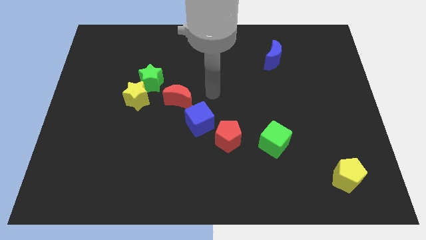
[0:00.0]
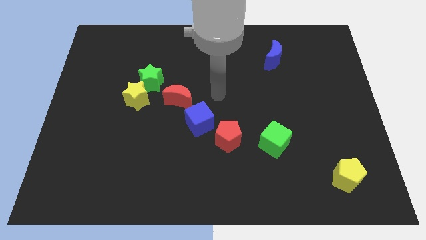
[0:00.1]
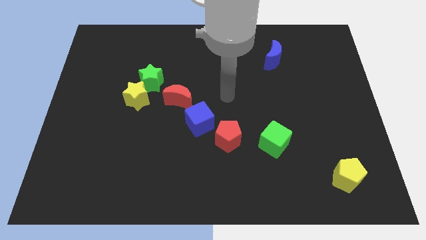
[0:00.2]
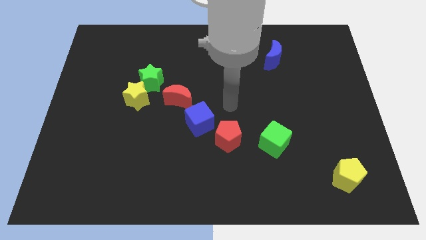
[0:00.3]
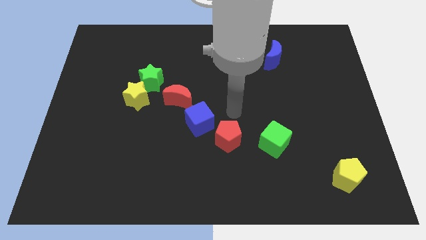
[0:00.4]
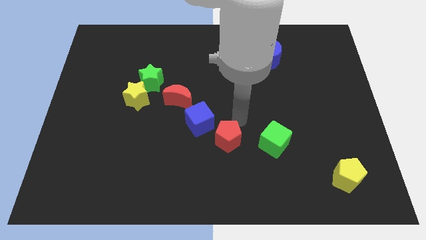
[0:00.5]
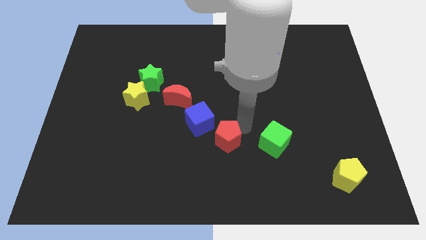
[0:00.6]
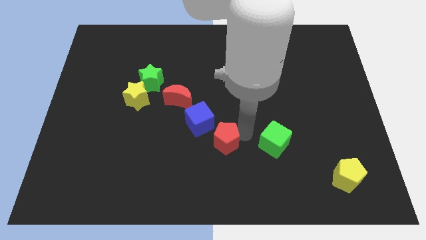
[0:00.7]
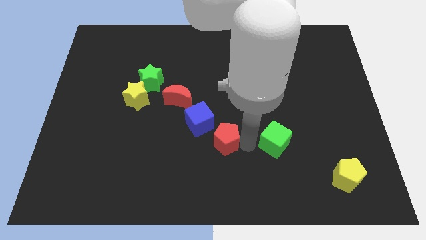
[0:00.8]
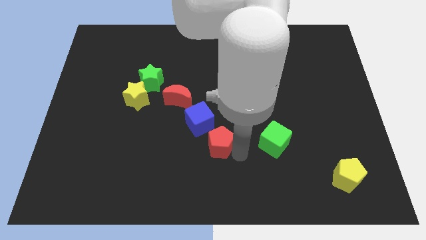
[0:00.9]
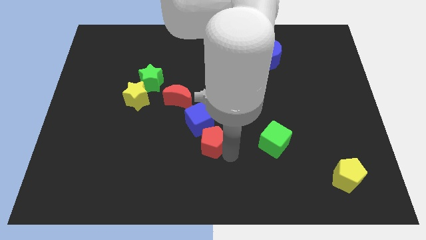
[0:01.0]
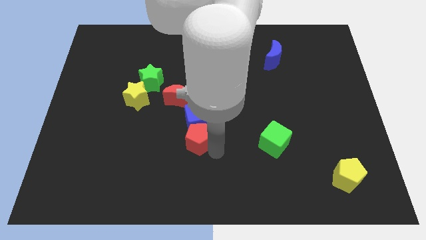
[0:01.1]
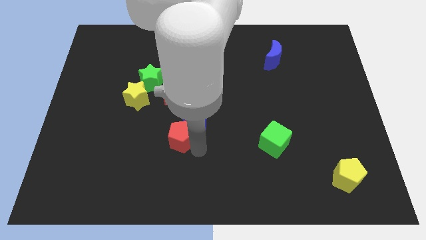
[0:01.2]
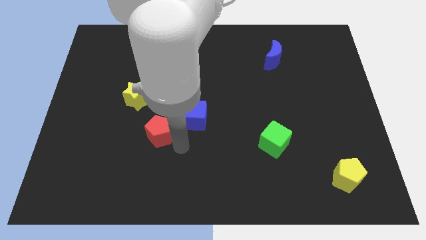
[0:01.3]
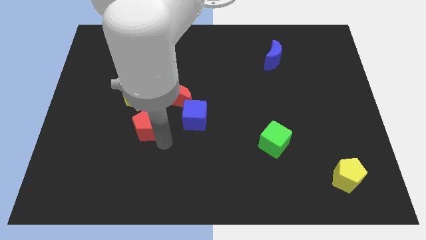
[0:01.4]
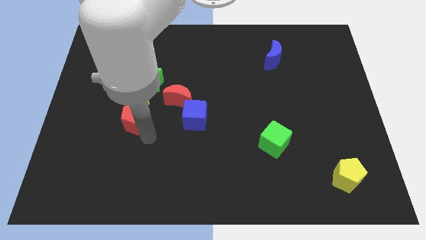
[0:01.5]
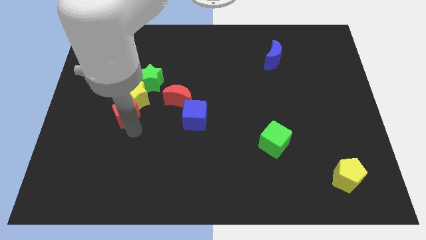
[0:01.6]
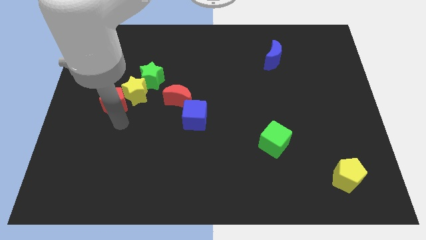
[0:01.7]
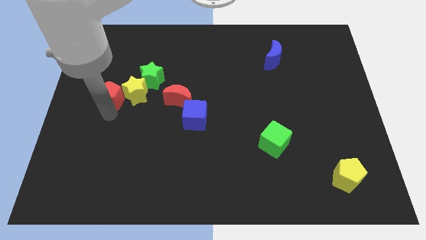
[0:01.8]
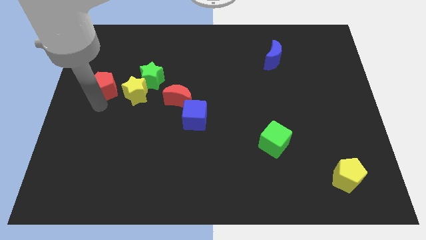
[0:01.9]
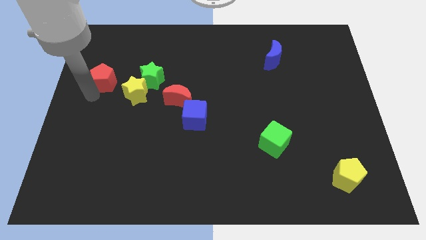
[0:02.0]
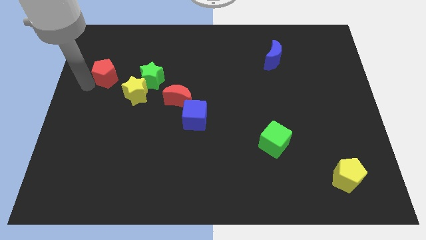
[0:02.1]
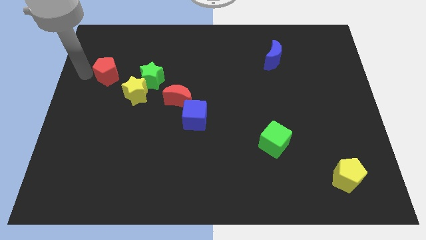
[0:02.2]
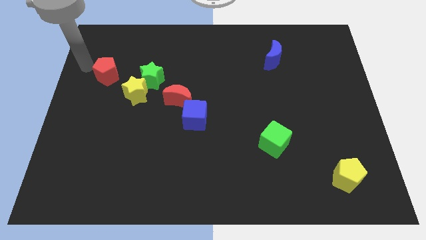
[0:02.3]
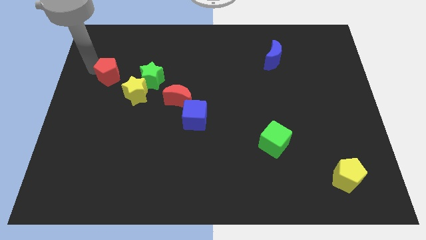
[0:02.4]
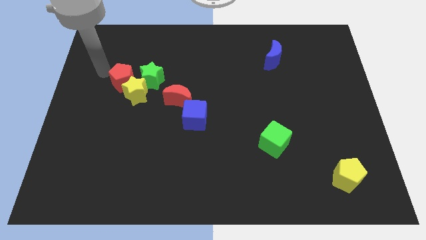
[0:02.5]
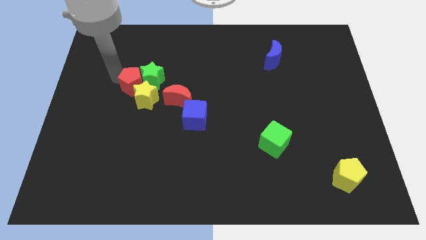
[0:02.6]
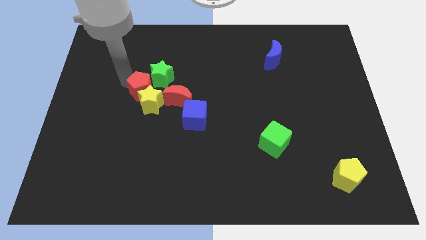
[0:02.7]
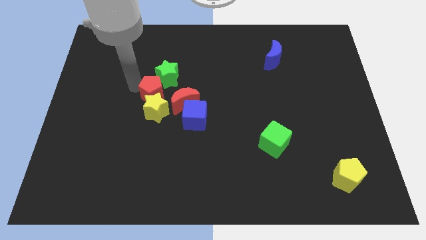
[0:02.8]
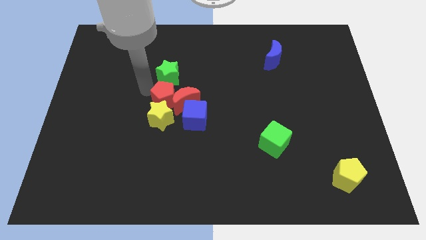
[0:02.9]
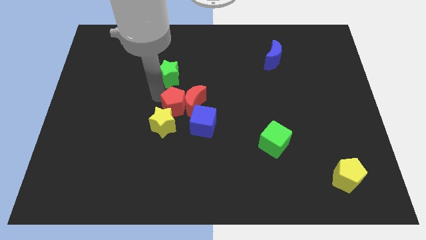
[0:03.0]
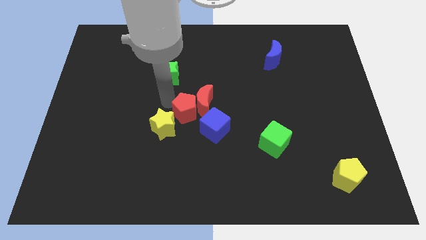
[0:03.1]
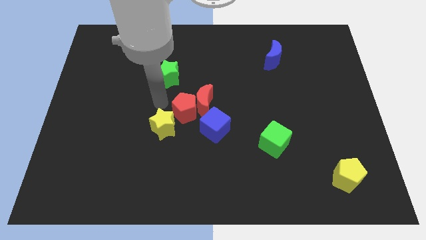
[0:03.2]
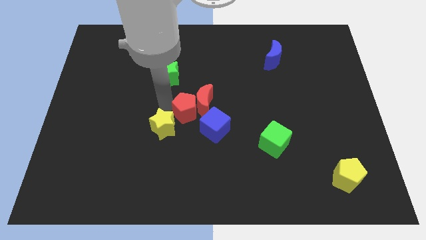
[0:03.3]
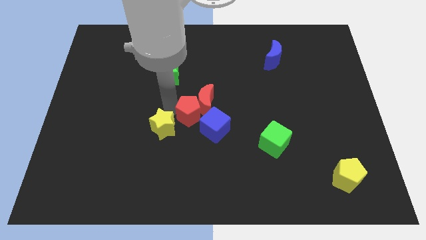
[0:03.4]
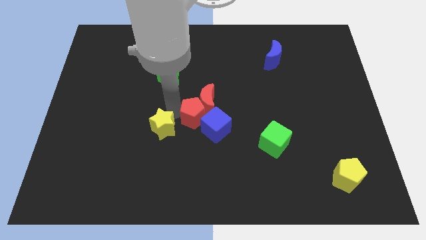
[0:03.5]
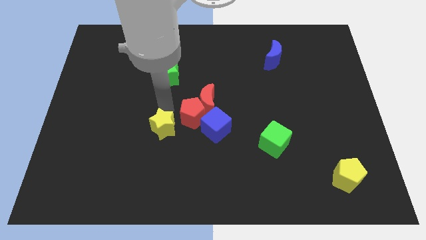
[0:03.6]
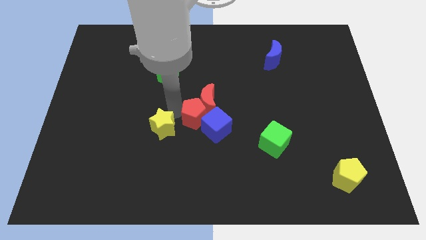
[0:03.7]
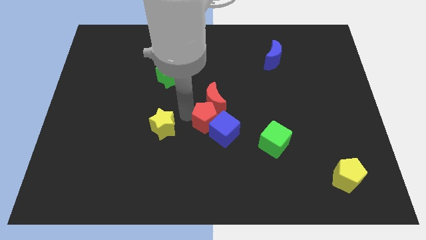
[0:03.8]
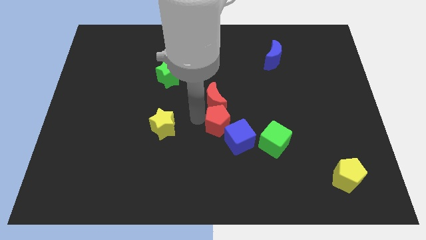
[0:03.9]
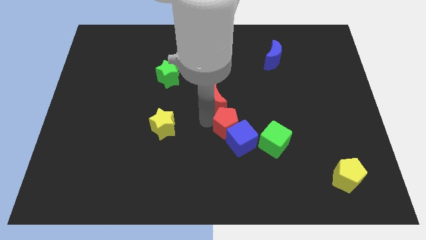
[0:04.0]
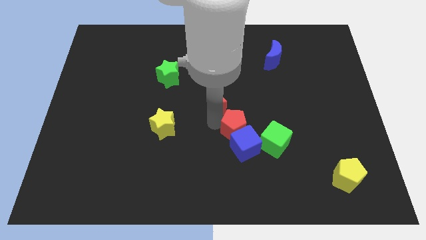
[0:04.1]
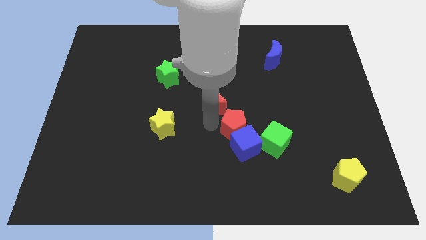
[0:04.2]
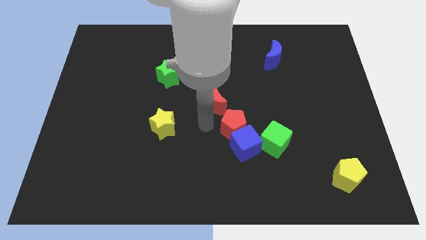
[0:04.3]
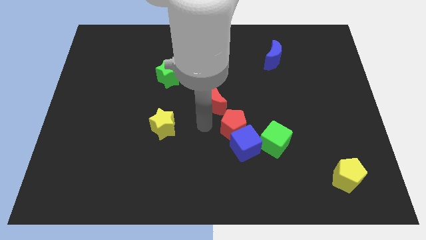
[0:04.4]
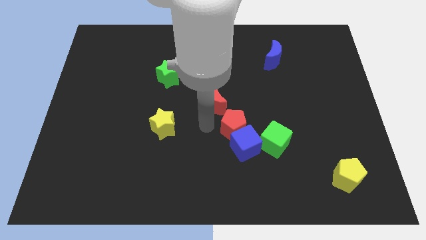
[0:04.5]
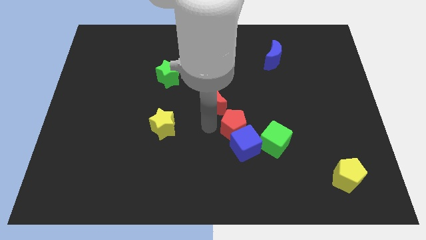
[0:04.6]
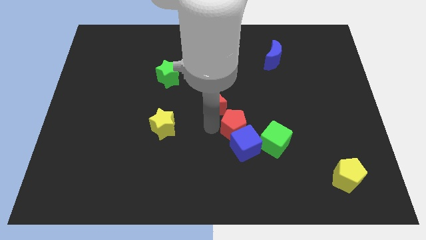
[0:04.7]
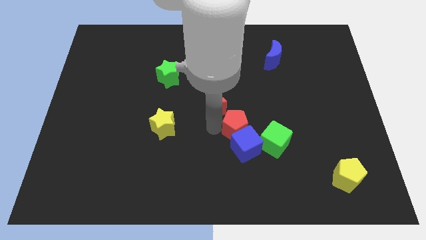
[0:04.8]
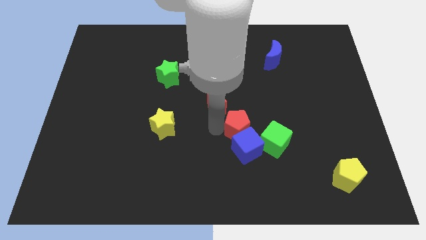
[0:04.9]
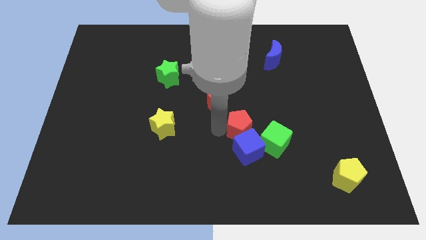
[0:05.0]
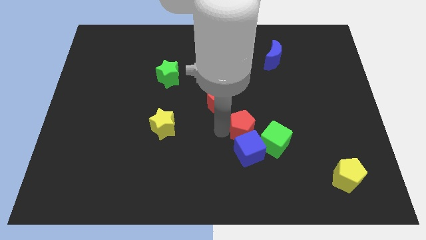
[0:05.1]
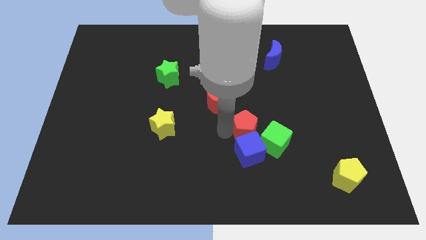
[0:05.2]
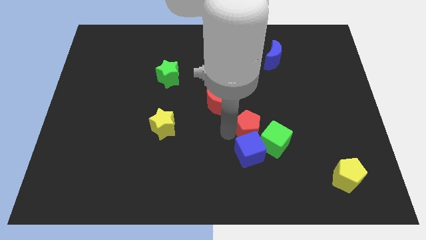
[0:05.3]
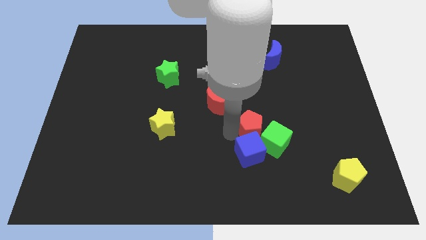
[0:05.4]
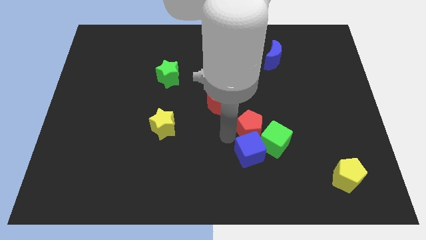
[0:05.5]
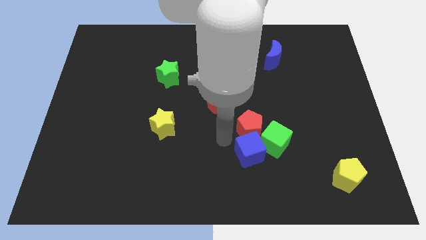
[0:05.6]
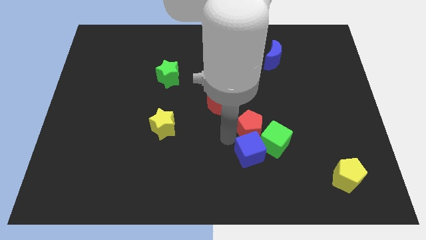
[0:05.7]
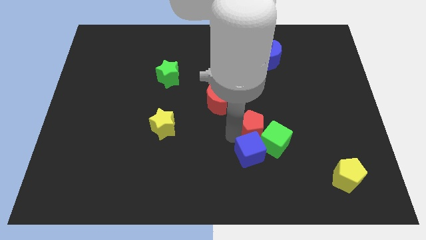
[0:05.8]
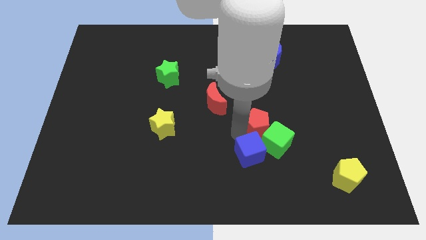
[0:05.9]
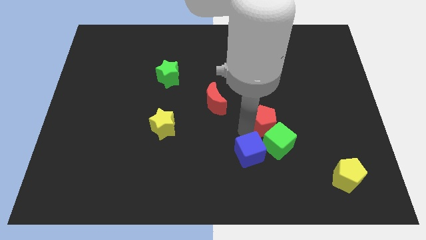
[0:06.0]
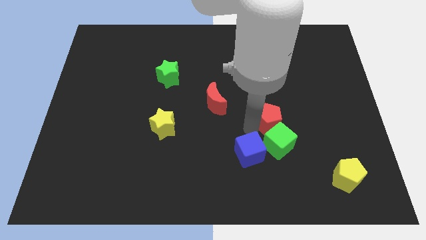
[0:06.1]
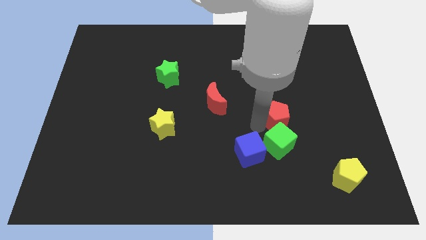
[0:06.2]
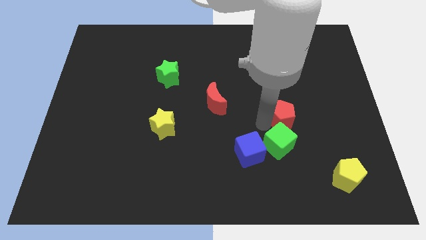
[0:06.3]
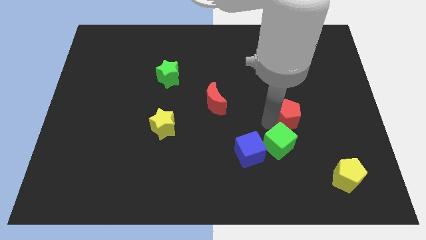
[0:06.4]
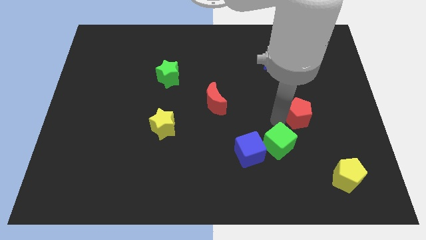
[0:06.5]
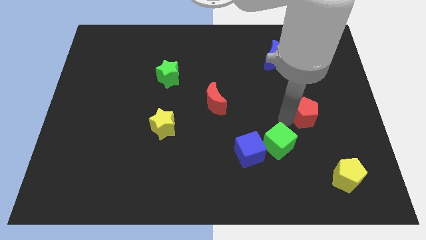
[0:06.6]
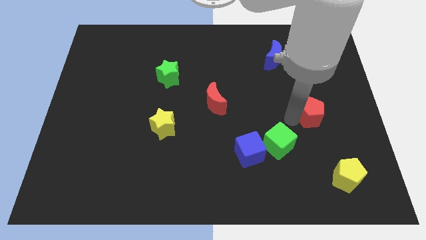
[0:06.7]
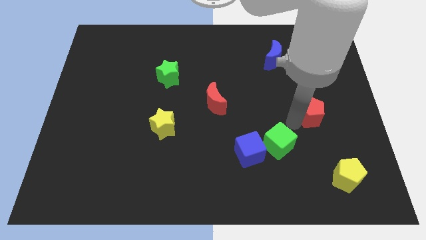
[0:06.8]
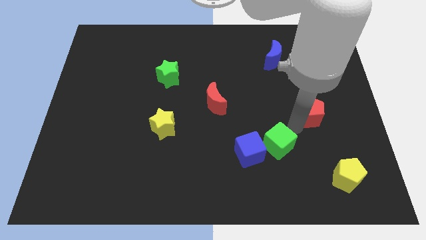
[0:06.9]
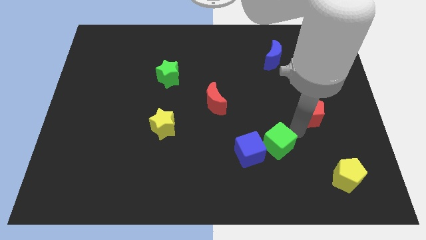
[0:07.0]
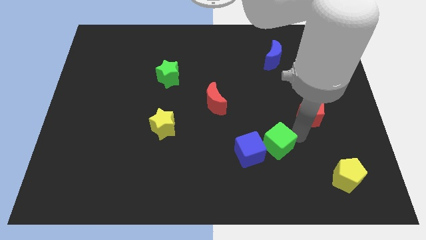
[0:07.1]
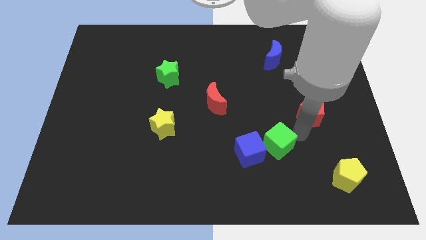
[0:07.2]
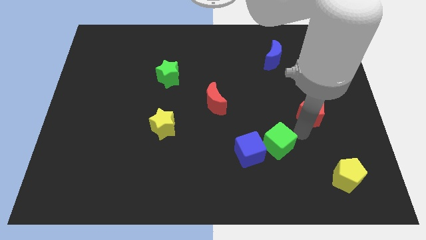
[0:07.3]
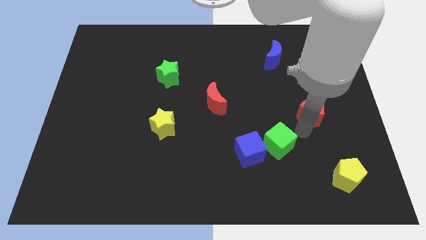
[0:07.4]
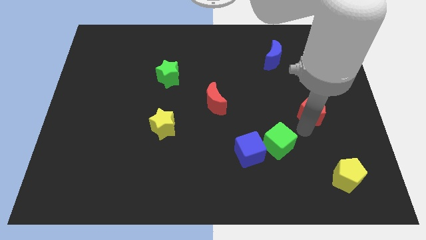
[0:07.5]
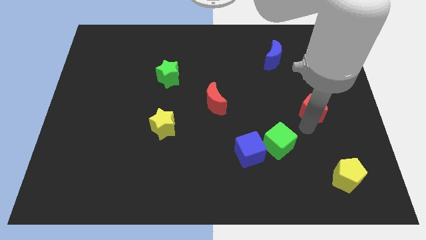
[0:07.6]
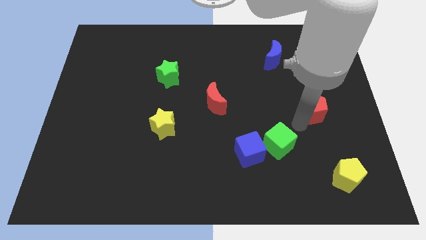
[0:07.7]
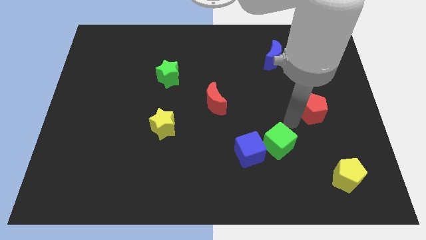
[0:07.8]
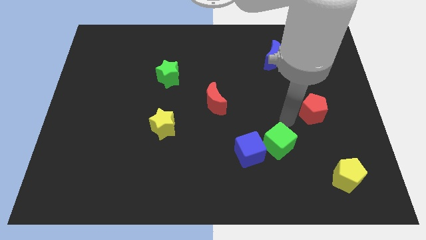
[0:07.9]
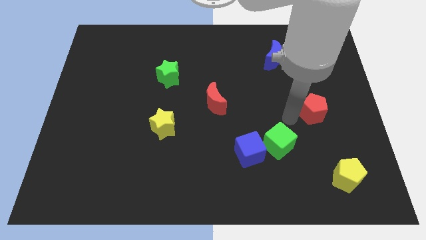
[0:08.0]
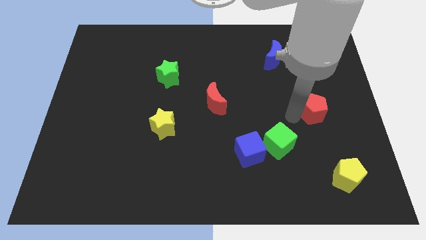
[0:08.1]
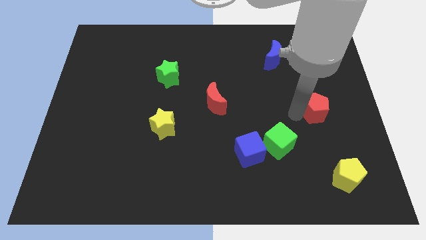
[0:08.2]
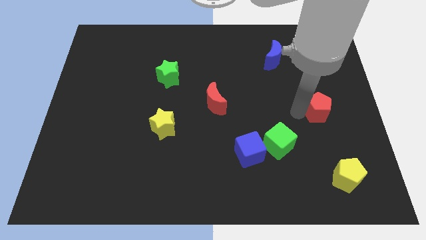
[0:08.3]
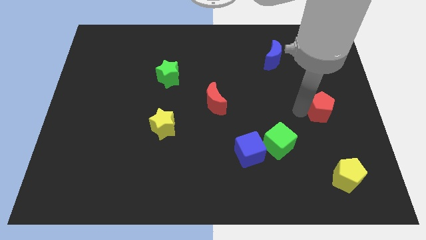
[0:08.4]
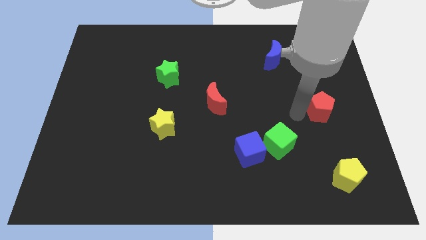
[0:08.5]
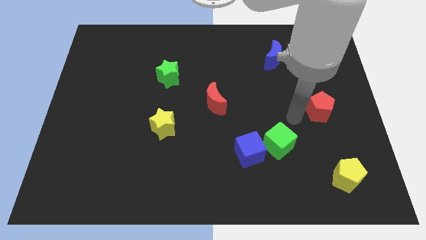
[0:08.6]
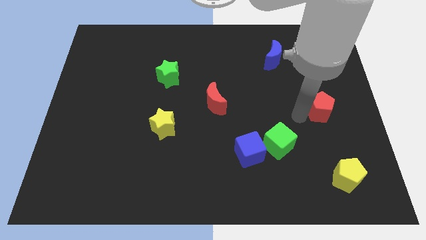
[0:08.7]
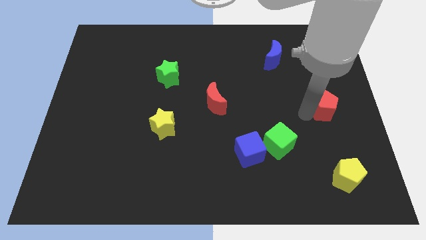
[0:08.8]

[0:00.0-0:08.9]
push the red pentagon to the right side
